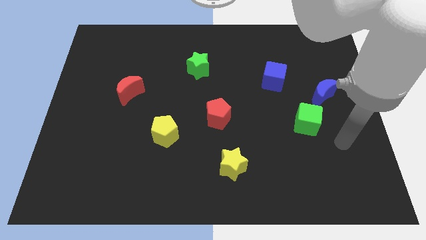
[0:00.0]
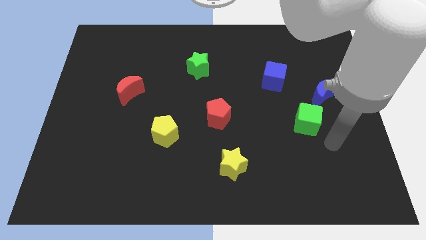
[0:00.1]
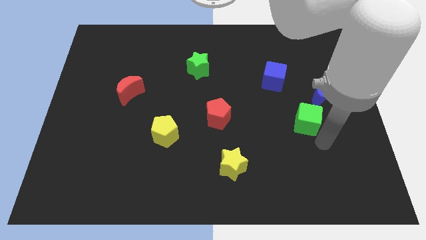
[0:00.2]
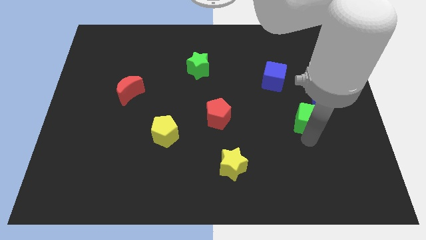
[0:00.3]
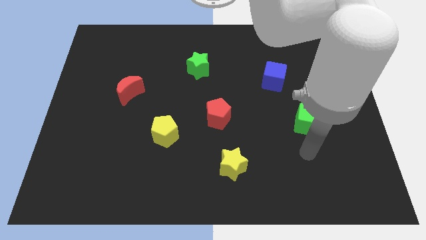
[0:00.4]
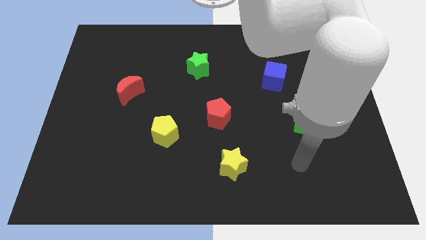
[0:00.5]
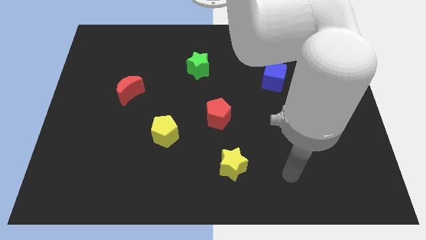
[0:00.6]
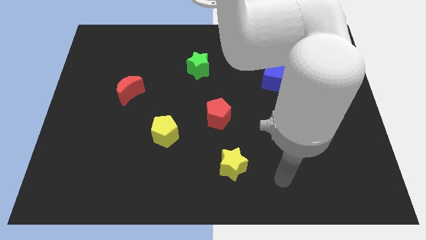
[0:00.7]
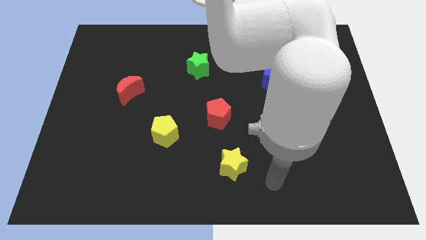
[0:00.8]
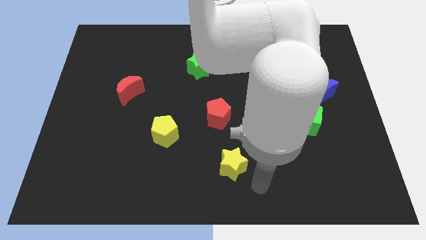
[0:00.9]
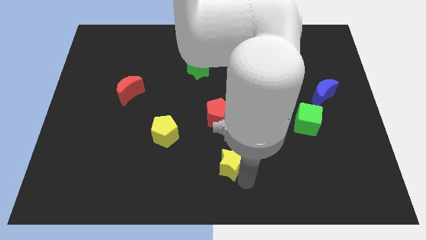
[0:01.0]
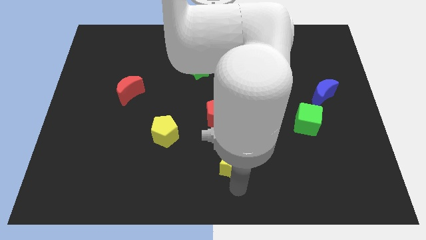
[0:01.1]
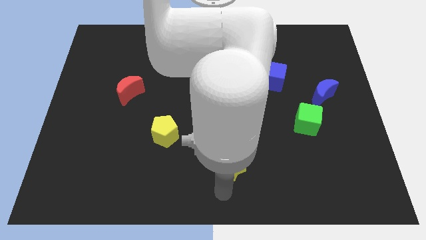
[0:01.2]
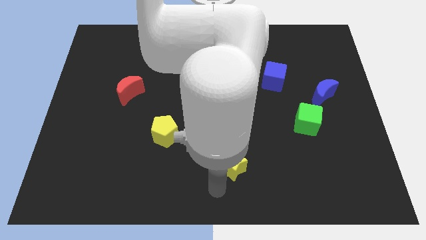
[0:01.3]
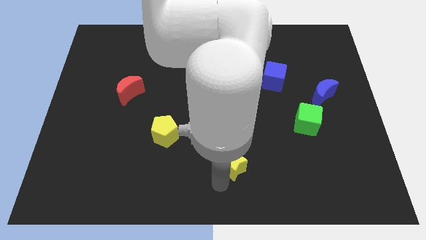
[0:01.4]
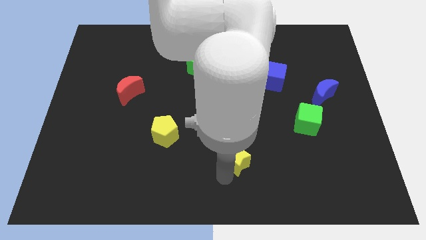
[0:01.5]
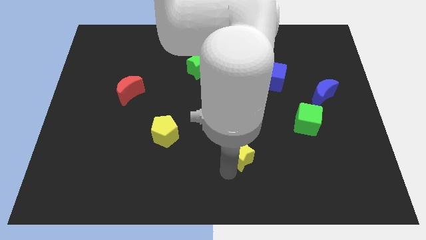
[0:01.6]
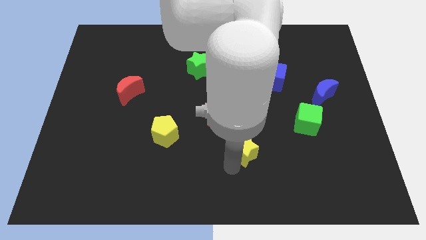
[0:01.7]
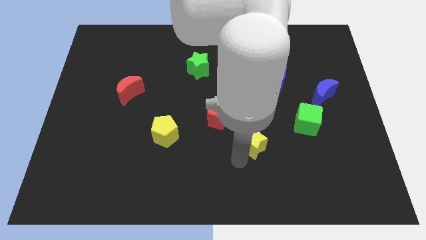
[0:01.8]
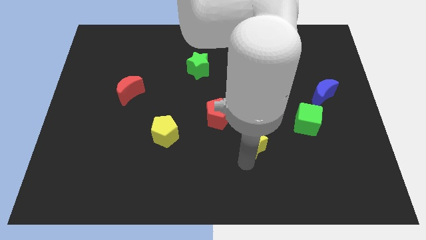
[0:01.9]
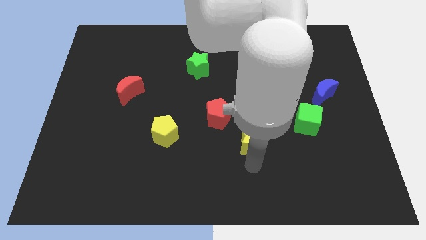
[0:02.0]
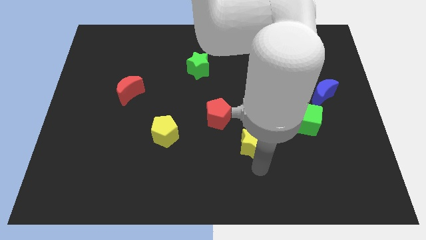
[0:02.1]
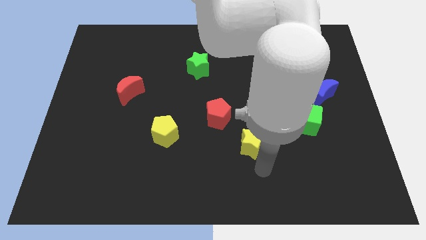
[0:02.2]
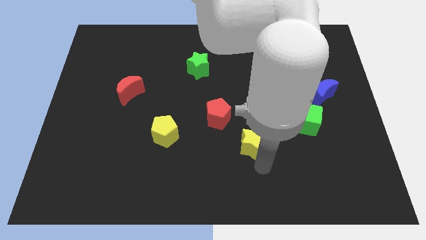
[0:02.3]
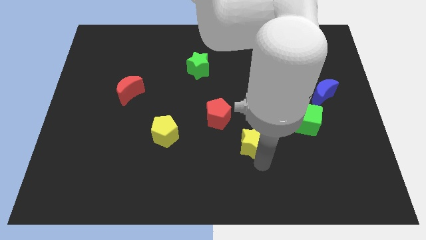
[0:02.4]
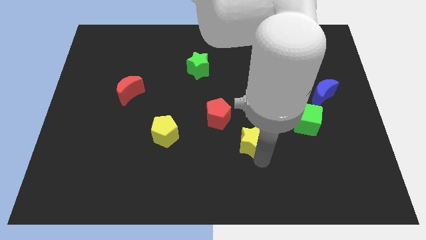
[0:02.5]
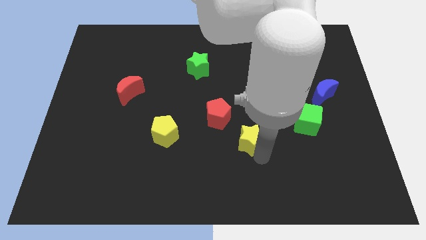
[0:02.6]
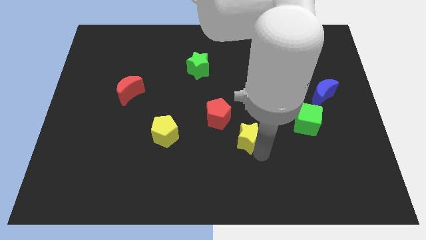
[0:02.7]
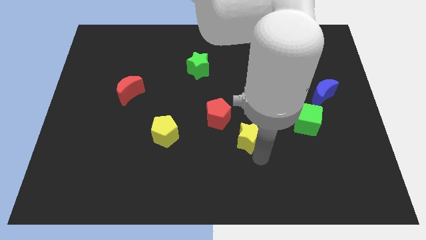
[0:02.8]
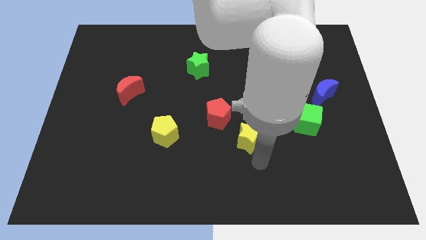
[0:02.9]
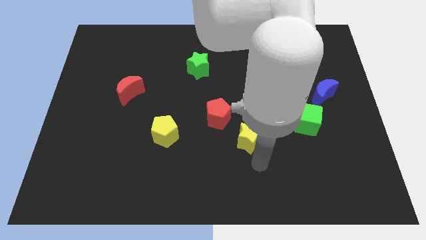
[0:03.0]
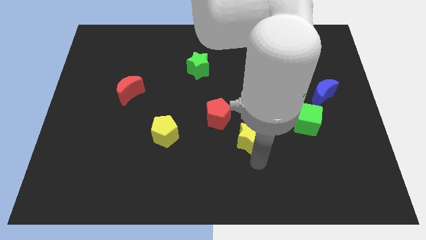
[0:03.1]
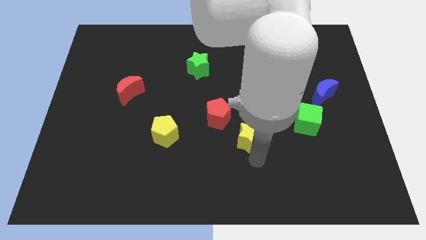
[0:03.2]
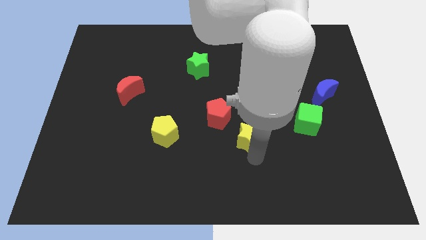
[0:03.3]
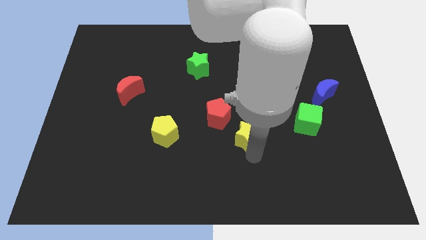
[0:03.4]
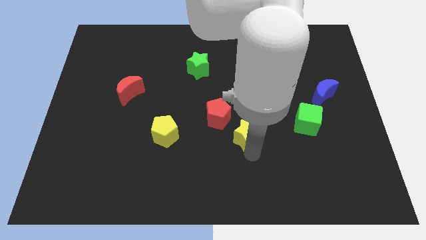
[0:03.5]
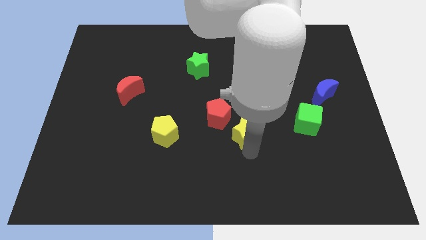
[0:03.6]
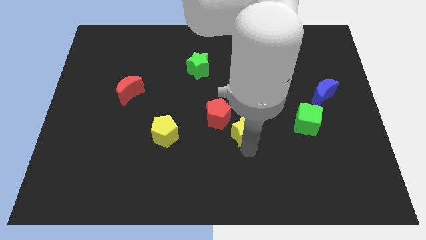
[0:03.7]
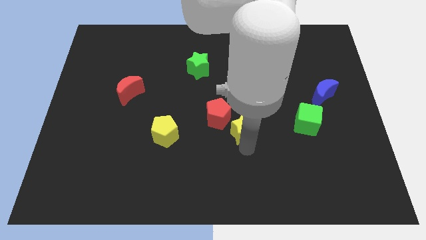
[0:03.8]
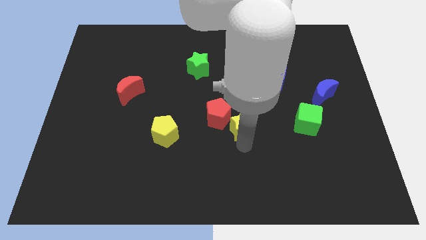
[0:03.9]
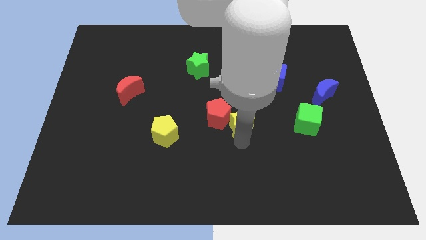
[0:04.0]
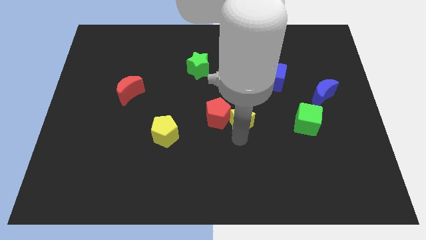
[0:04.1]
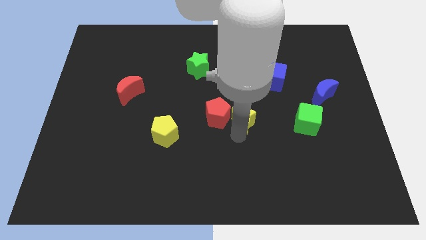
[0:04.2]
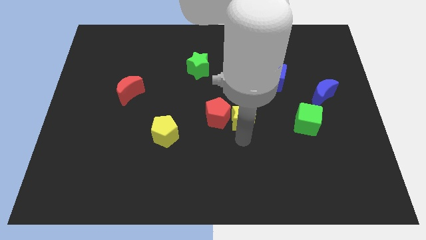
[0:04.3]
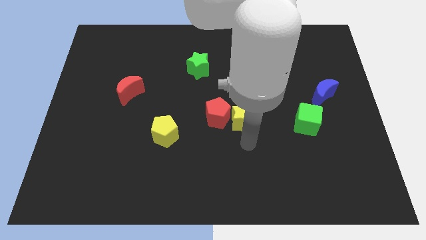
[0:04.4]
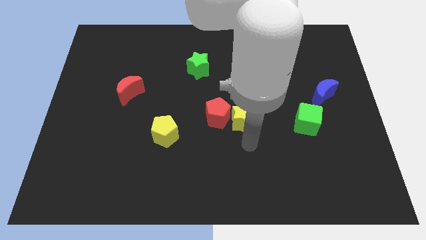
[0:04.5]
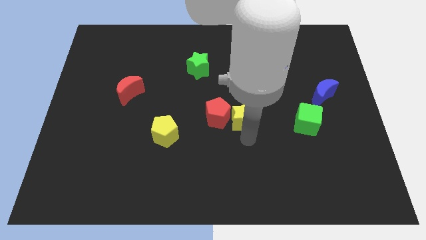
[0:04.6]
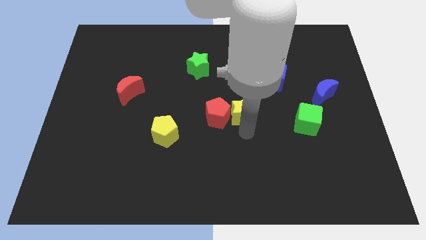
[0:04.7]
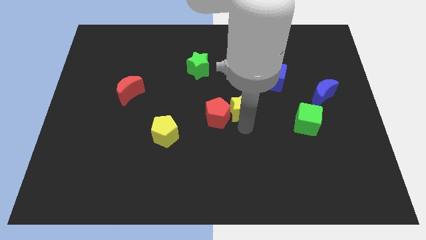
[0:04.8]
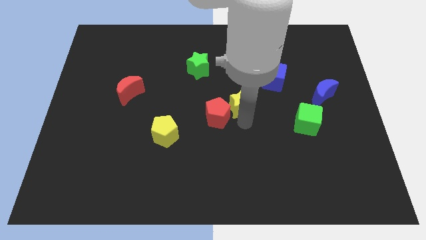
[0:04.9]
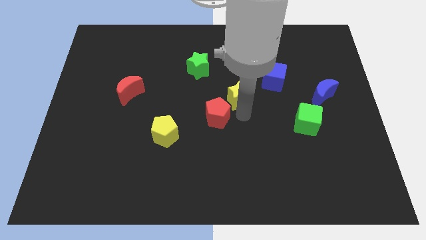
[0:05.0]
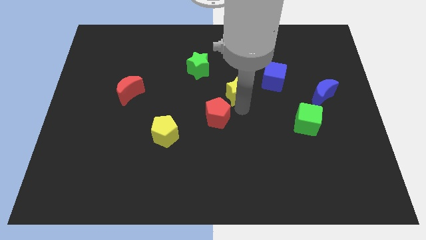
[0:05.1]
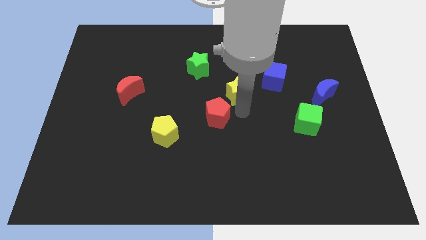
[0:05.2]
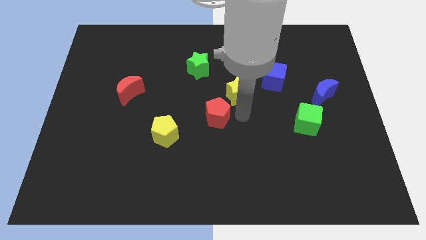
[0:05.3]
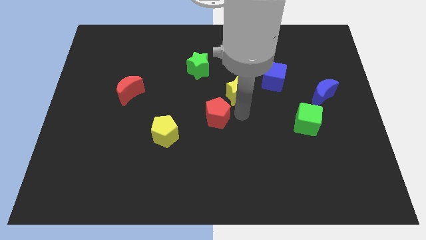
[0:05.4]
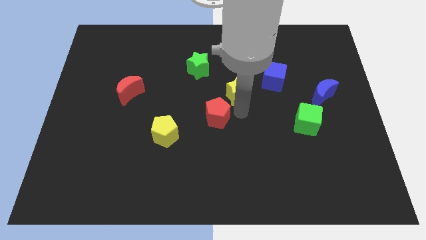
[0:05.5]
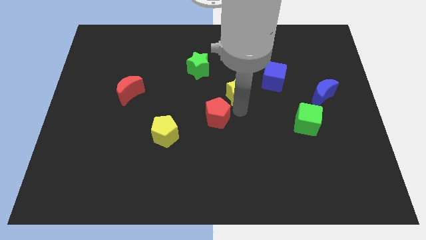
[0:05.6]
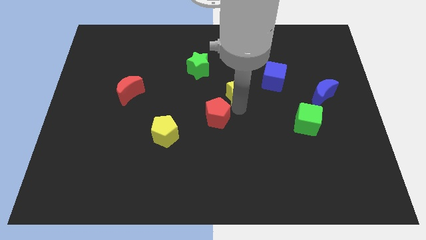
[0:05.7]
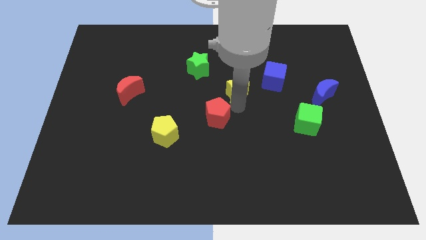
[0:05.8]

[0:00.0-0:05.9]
slide the yellow star up

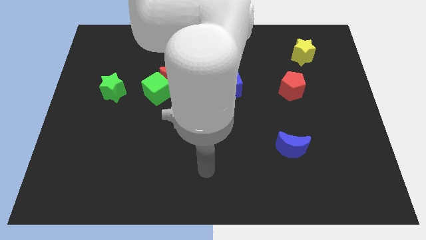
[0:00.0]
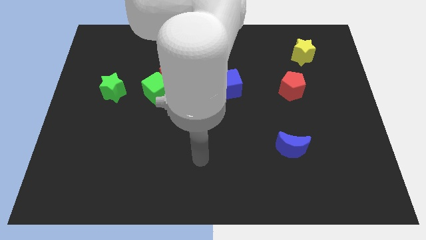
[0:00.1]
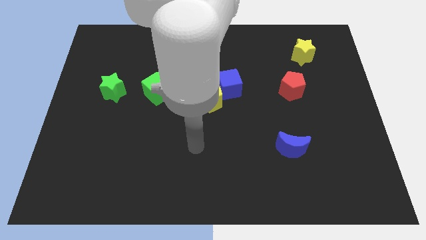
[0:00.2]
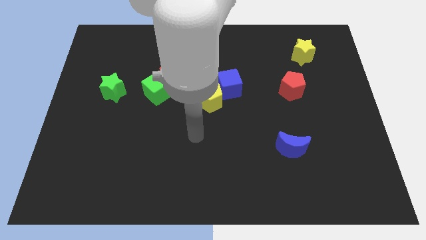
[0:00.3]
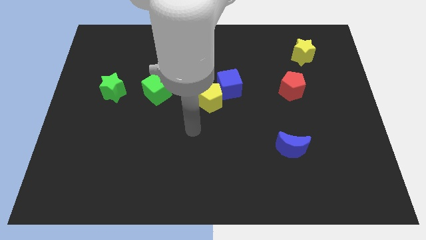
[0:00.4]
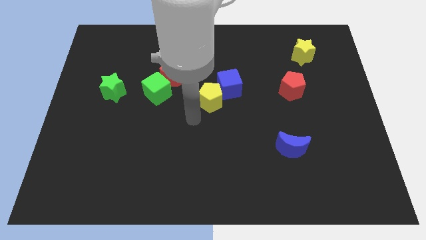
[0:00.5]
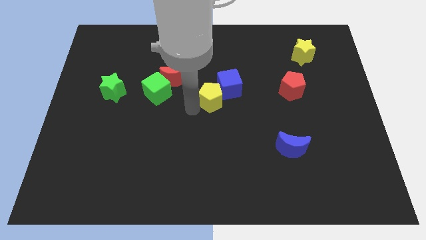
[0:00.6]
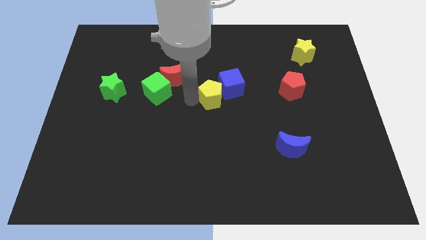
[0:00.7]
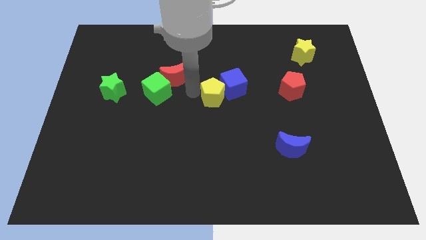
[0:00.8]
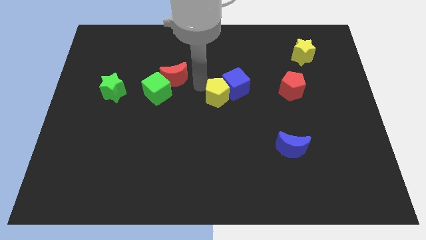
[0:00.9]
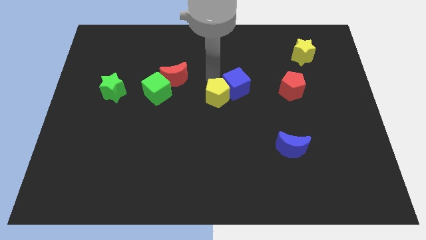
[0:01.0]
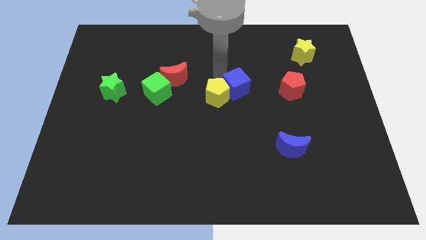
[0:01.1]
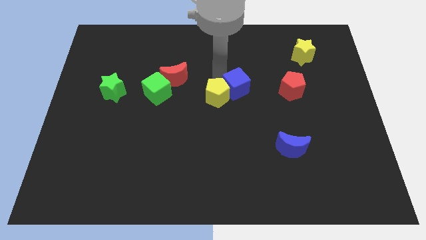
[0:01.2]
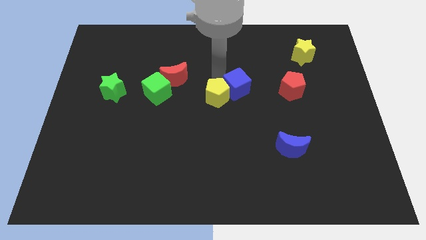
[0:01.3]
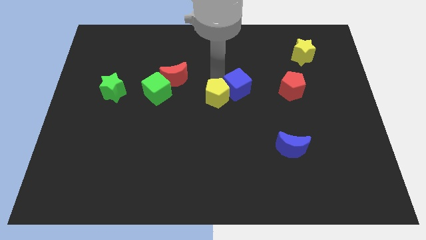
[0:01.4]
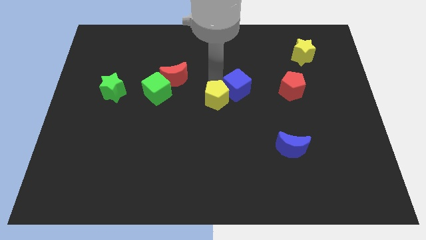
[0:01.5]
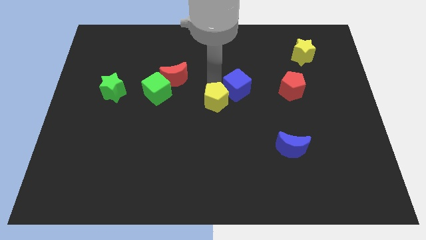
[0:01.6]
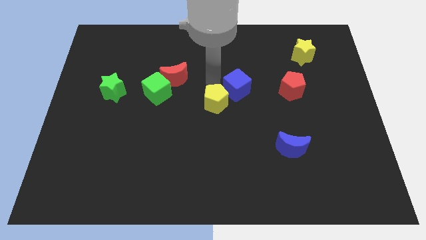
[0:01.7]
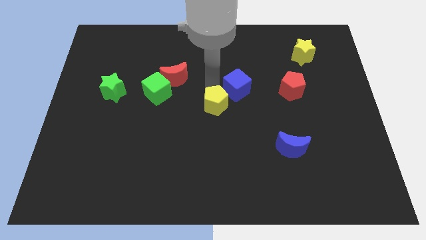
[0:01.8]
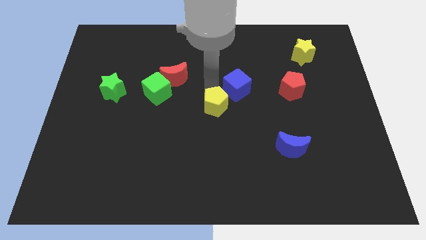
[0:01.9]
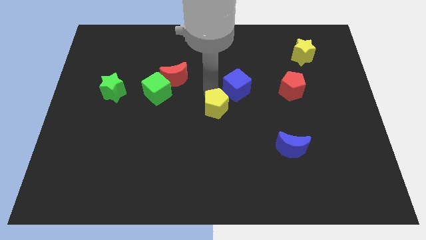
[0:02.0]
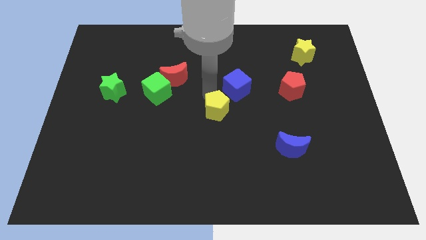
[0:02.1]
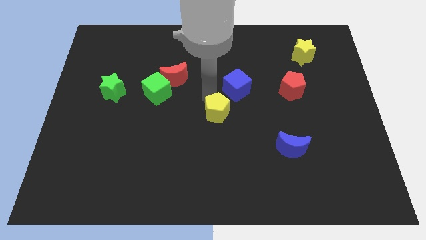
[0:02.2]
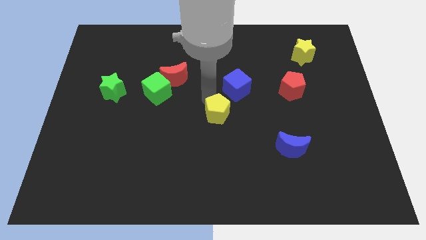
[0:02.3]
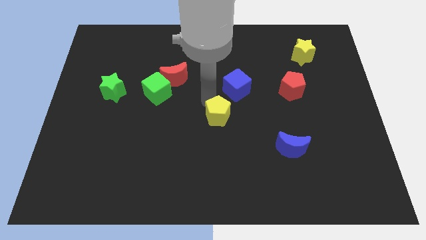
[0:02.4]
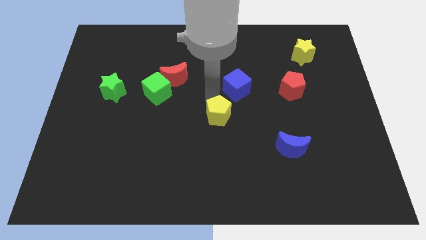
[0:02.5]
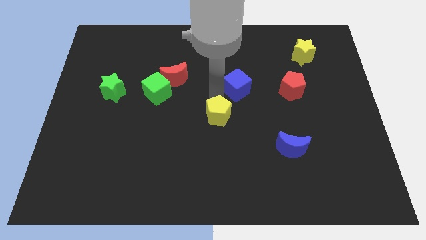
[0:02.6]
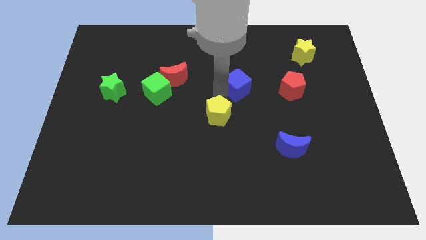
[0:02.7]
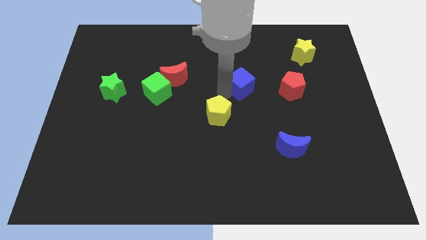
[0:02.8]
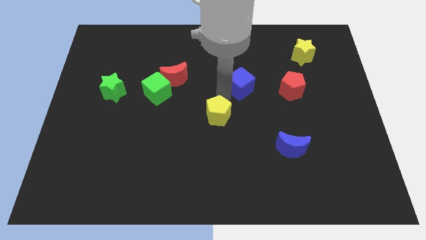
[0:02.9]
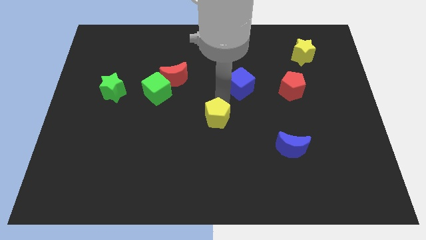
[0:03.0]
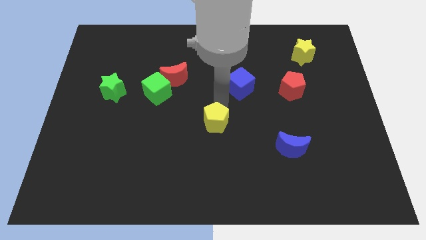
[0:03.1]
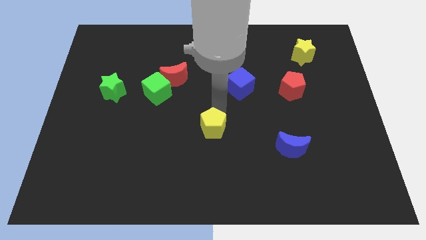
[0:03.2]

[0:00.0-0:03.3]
slide the yellow pentagon down a bit
